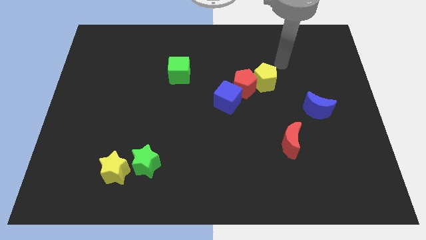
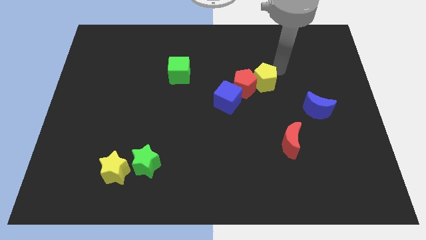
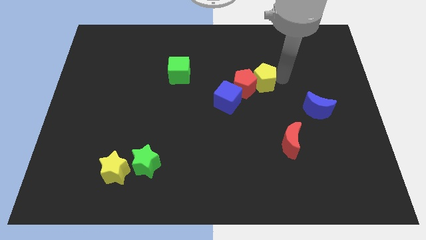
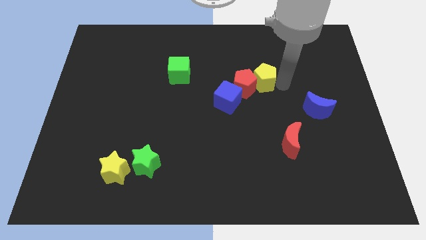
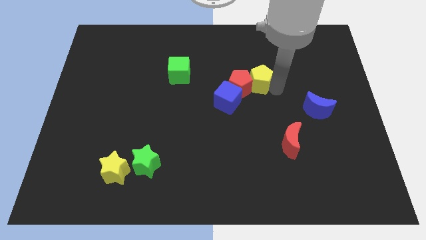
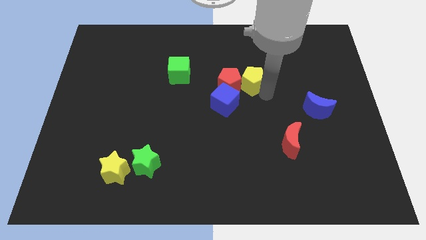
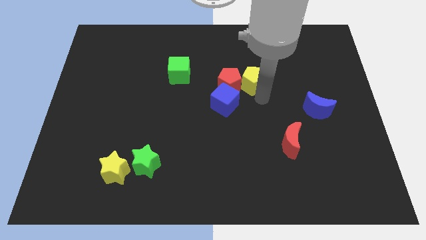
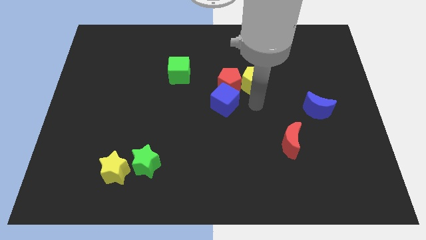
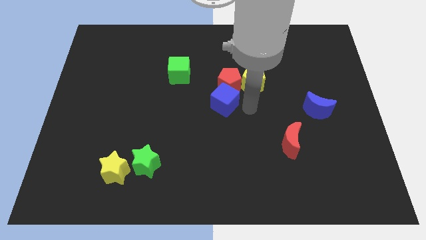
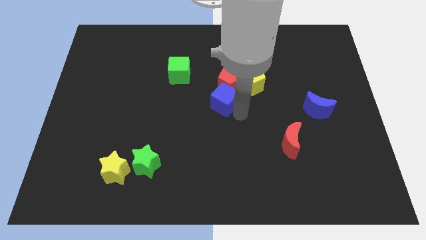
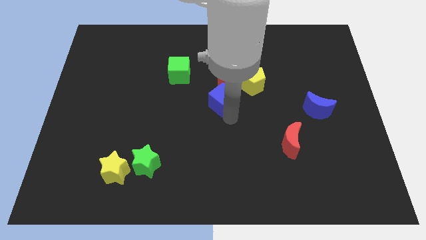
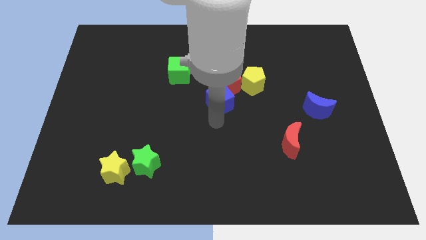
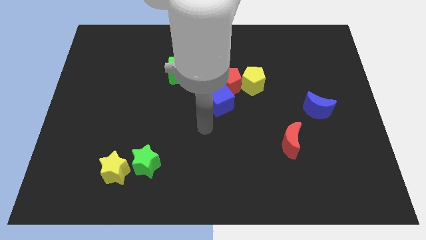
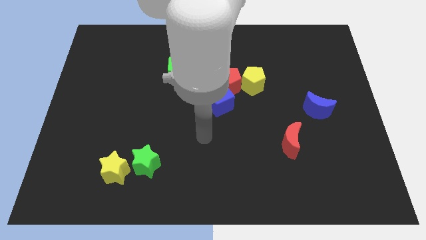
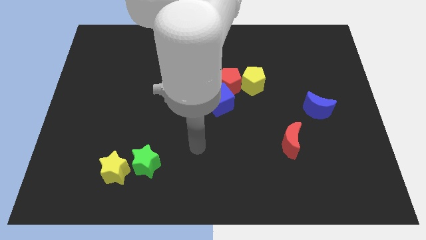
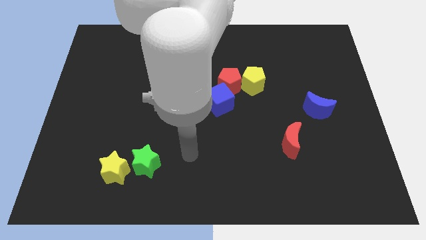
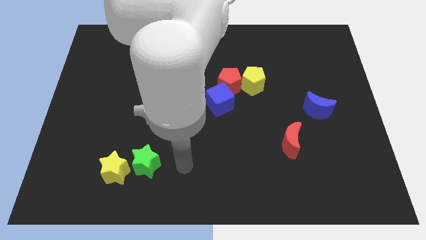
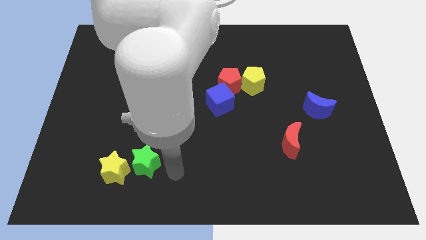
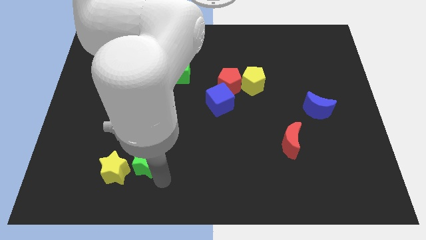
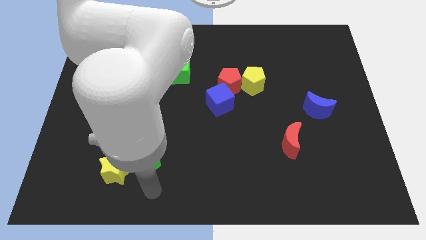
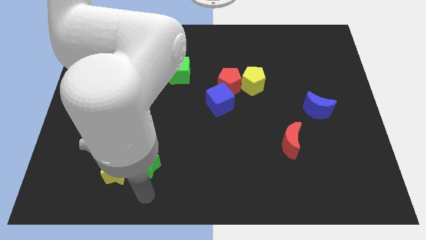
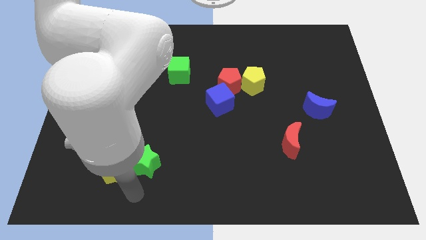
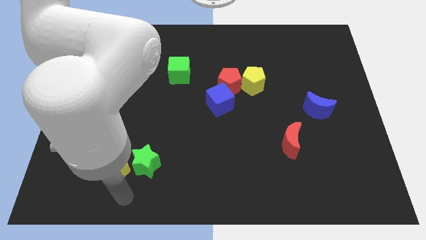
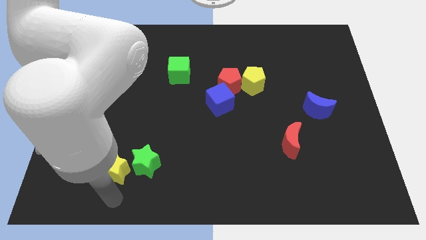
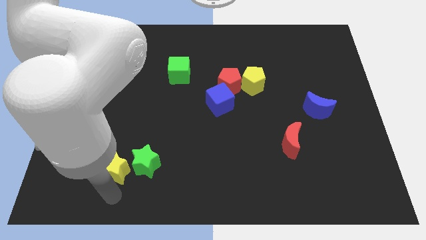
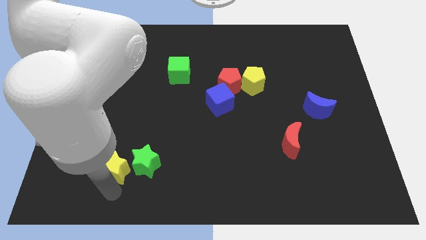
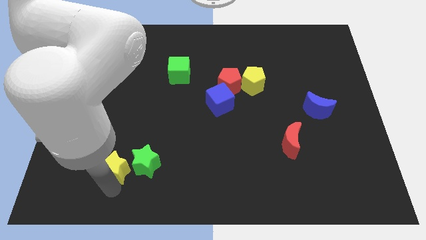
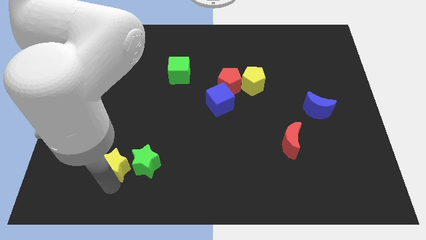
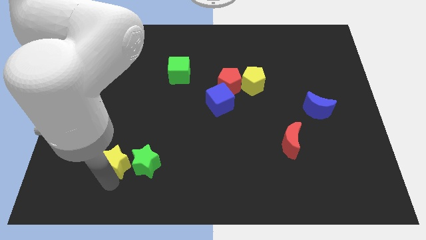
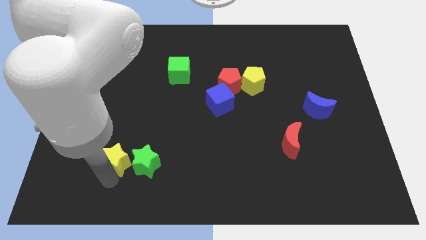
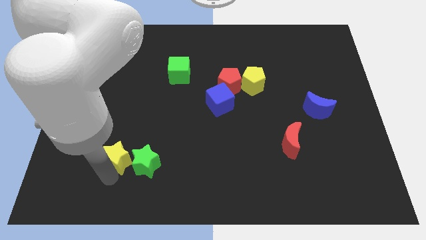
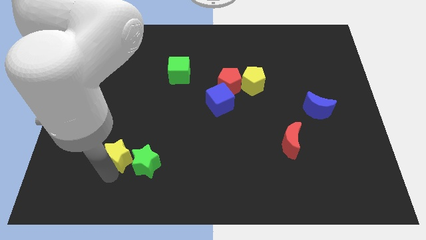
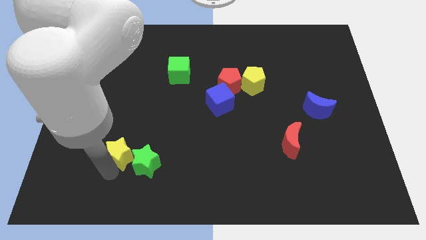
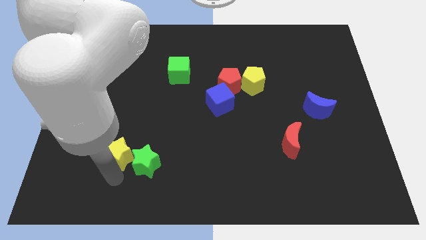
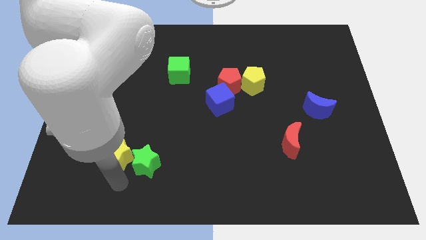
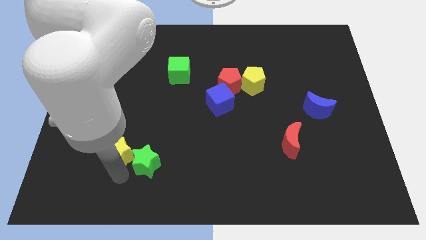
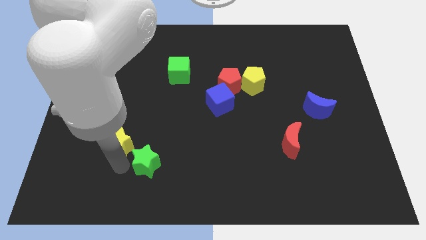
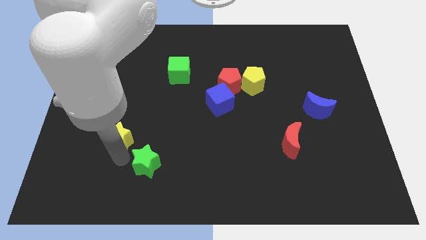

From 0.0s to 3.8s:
slightly push the yellow star up

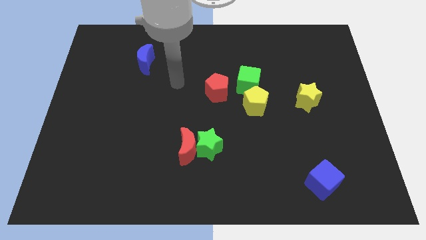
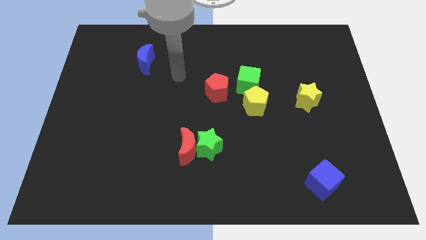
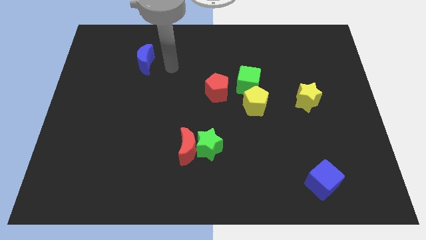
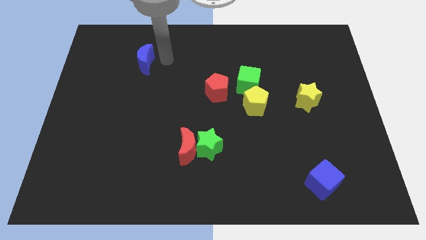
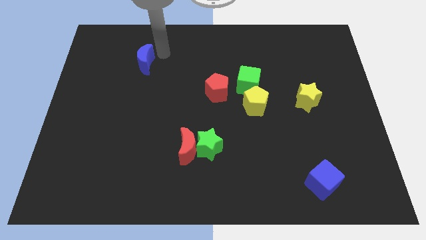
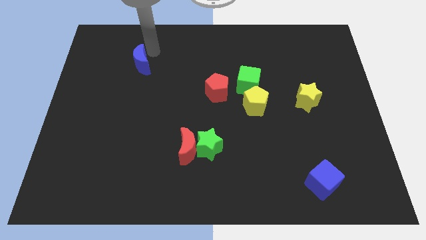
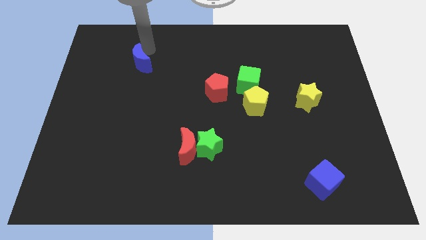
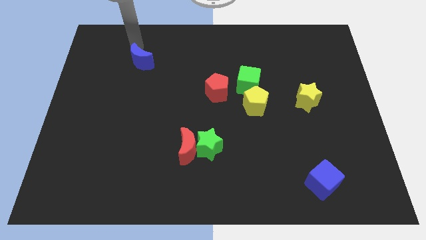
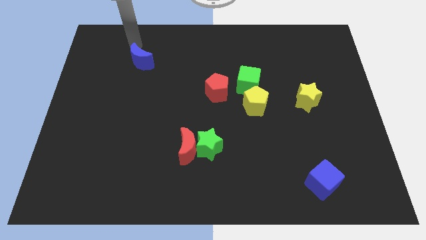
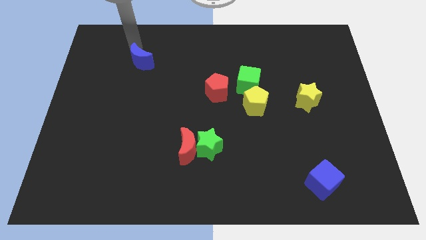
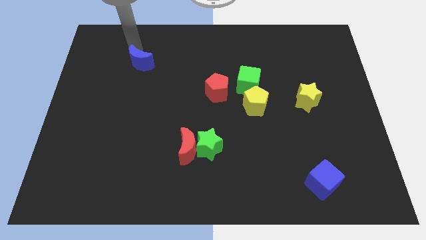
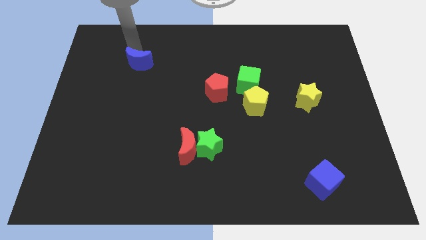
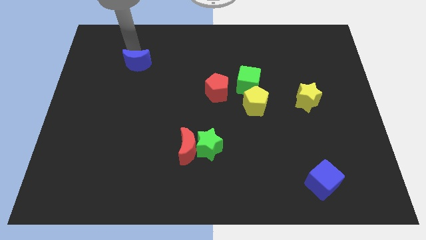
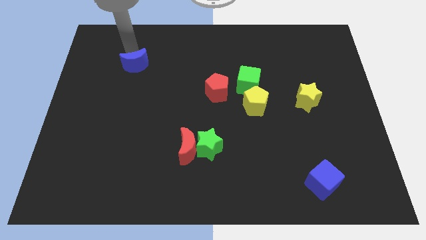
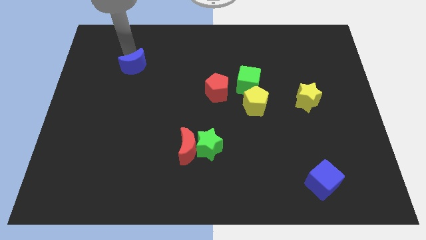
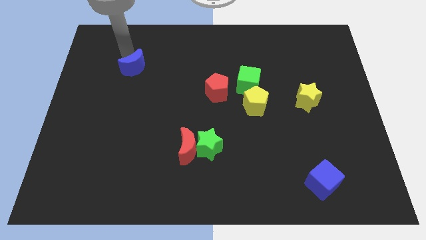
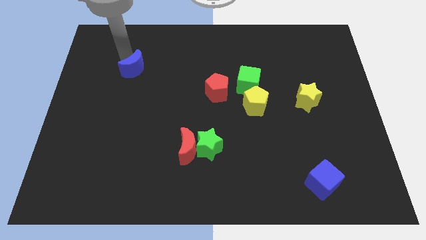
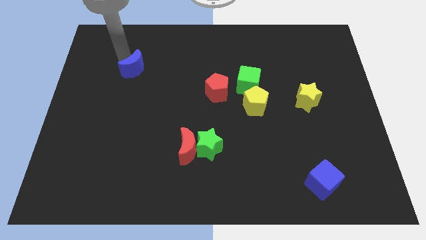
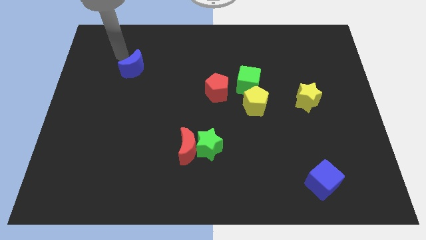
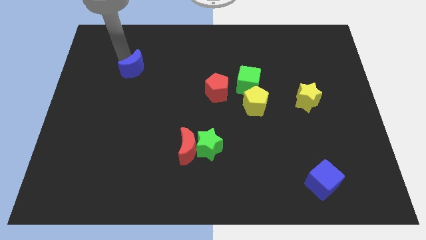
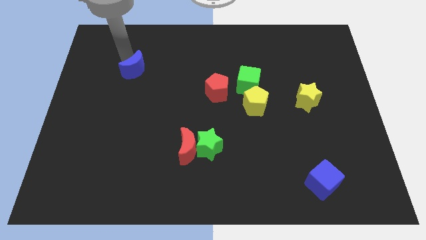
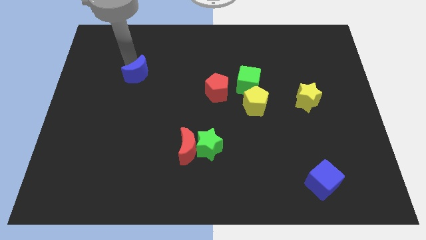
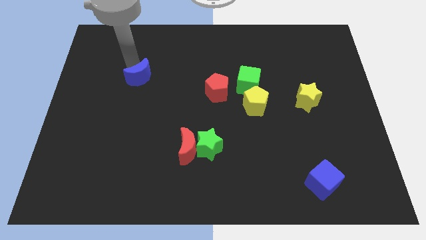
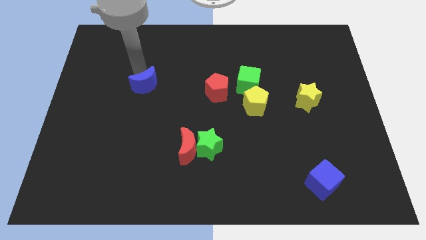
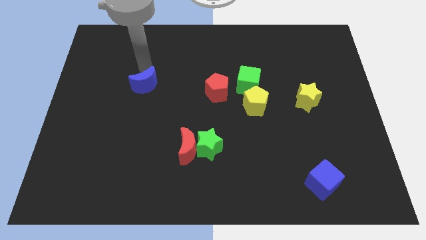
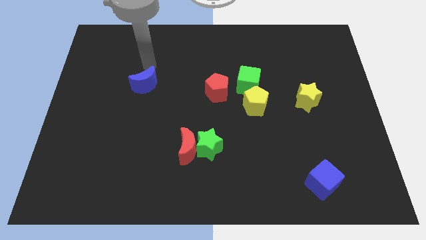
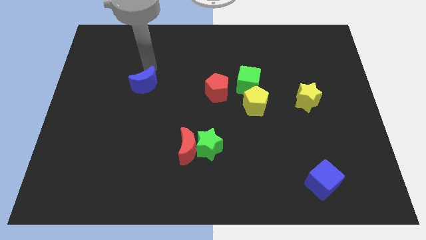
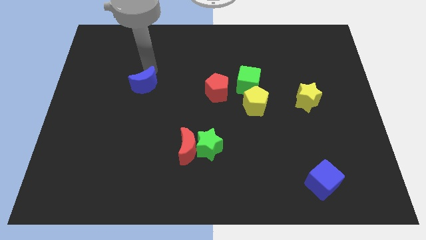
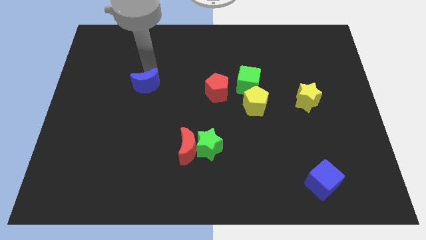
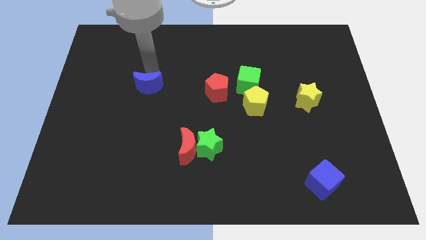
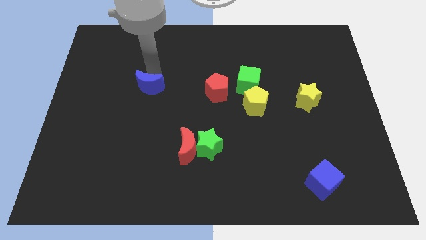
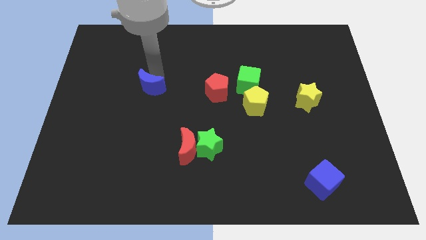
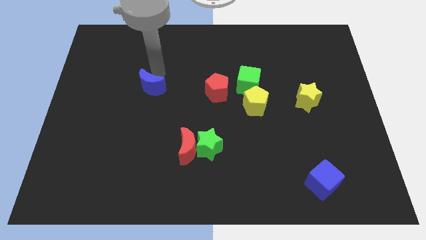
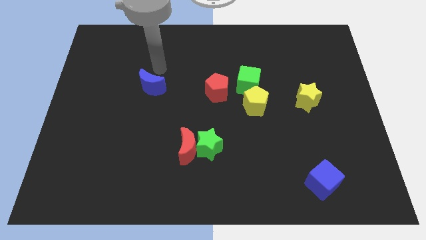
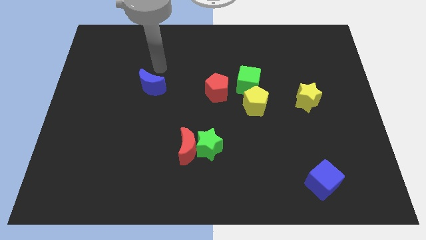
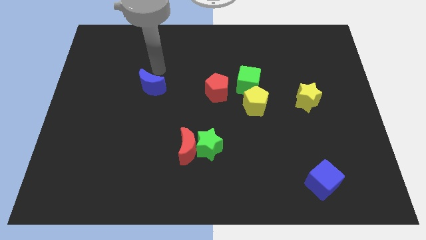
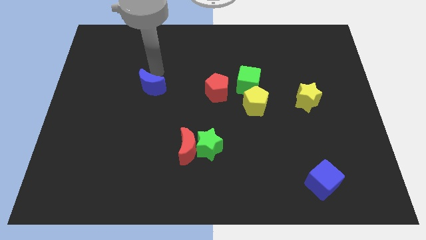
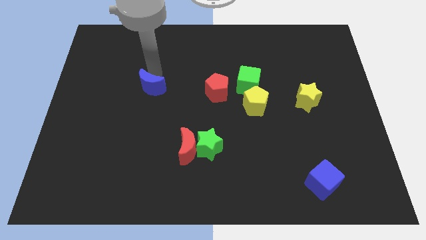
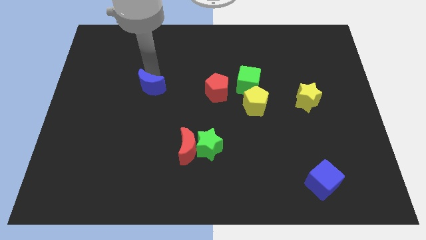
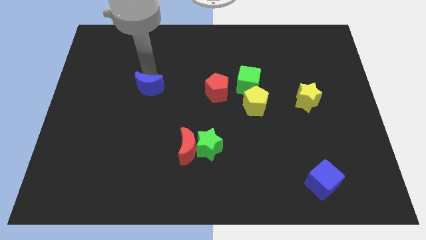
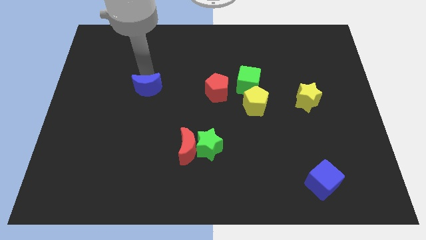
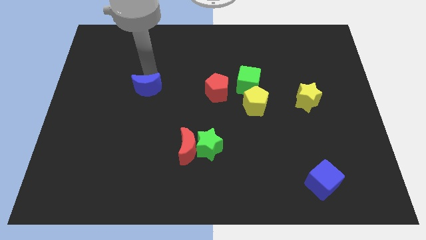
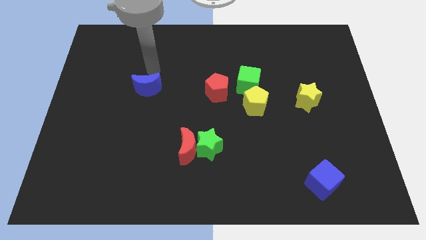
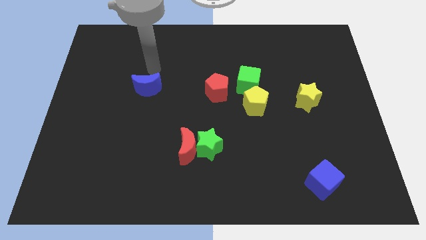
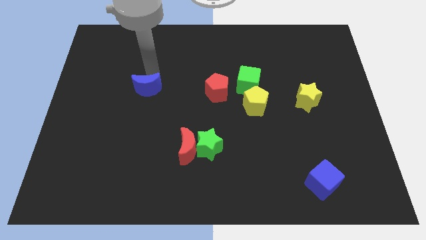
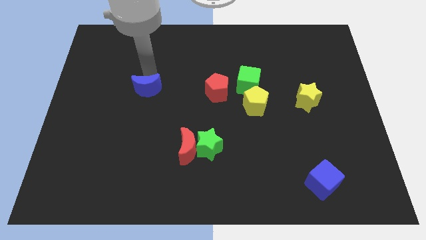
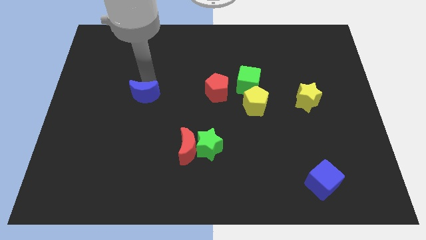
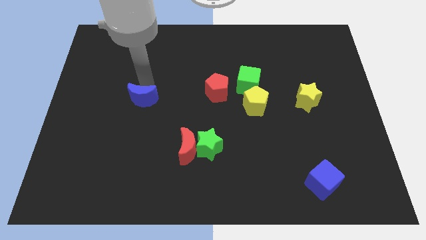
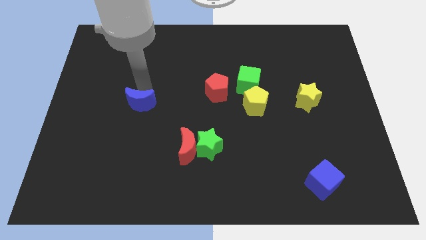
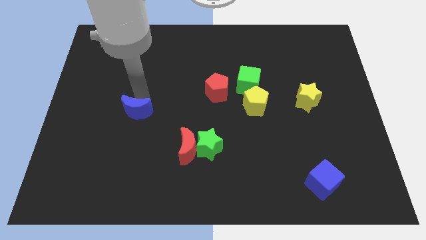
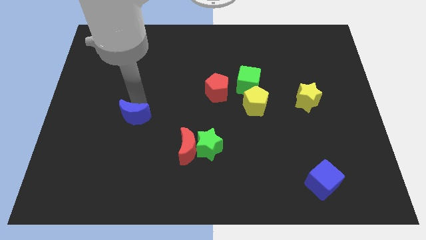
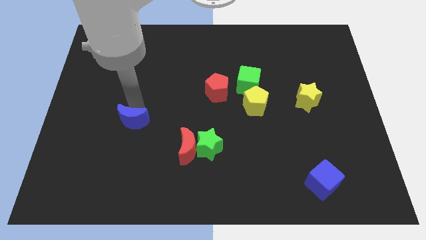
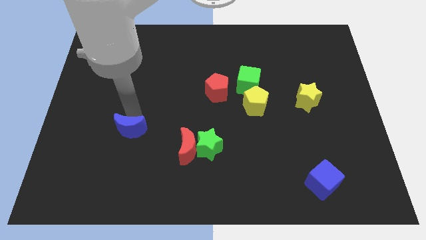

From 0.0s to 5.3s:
move the blue moon downwards
